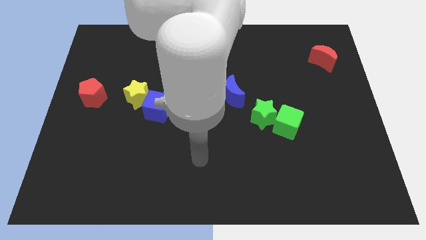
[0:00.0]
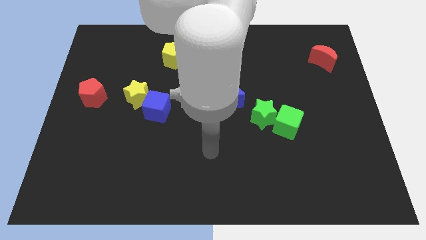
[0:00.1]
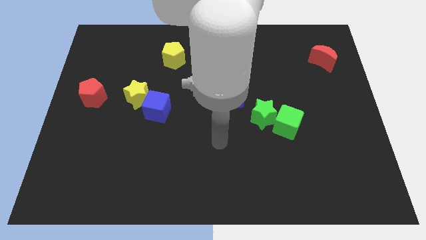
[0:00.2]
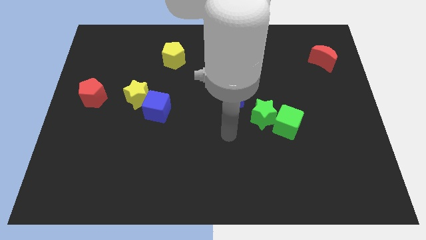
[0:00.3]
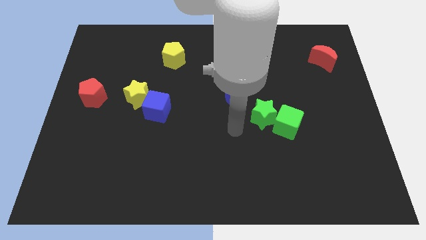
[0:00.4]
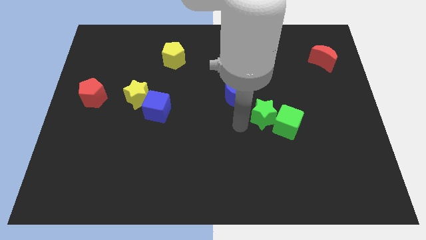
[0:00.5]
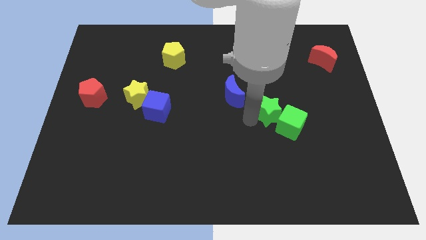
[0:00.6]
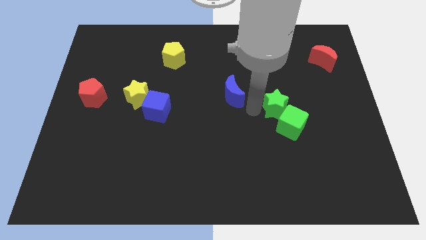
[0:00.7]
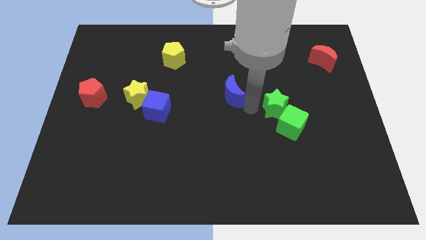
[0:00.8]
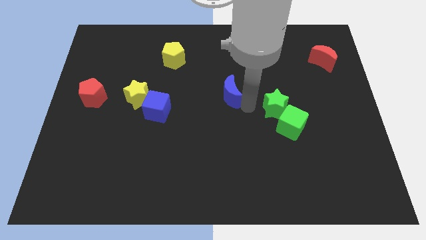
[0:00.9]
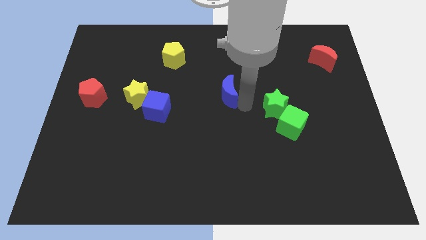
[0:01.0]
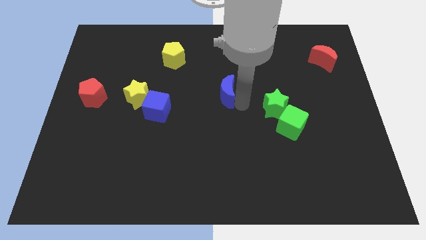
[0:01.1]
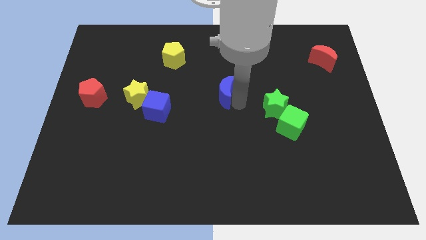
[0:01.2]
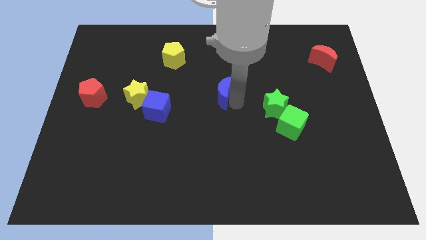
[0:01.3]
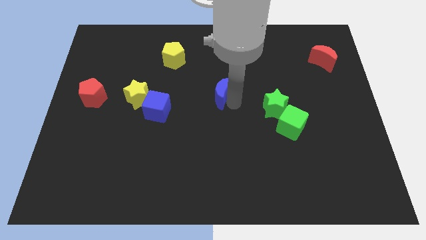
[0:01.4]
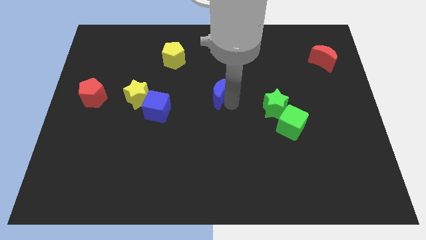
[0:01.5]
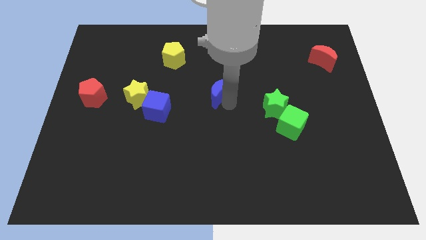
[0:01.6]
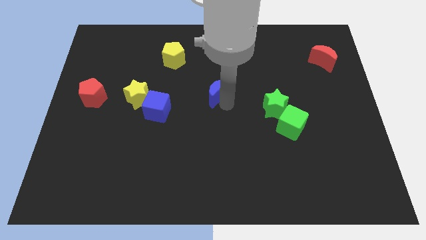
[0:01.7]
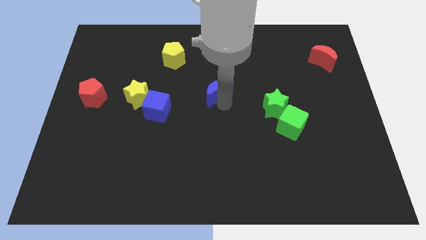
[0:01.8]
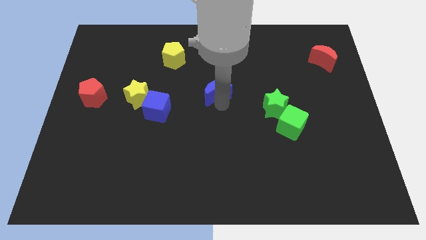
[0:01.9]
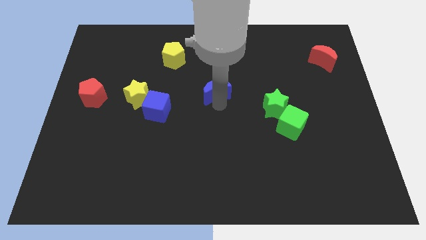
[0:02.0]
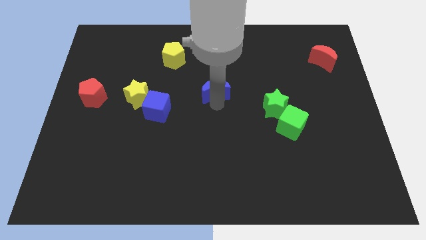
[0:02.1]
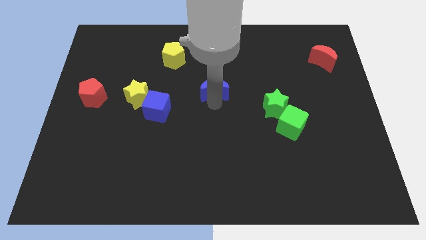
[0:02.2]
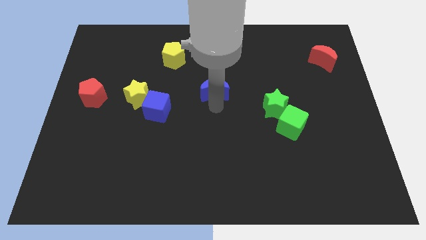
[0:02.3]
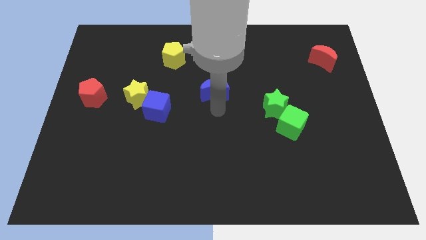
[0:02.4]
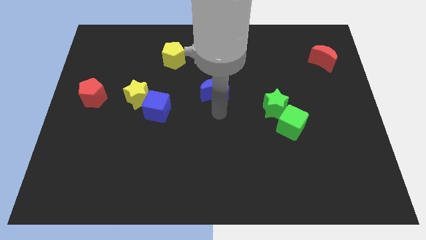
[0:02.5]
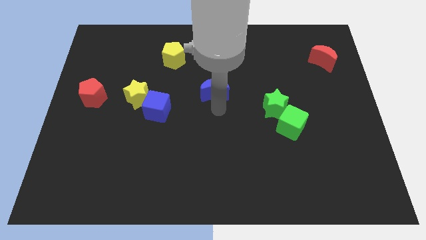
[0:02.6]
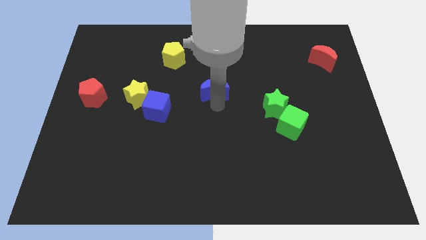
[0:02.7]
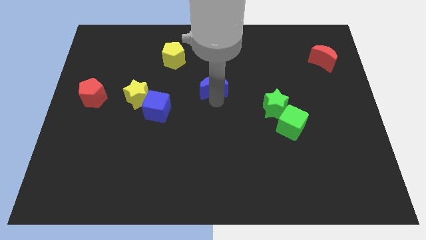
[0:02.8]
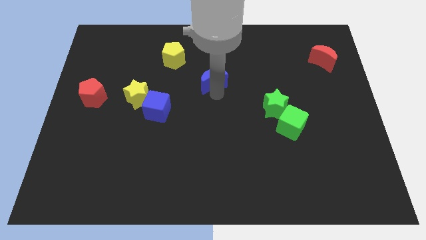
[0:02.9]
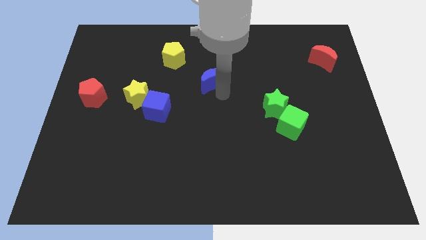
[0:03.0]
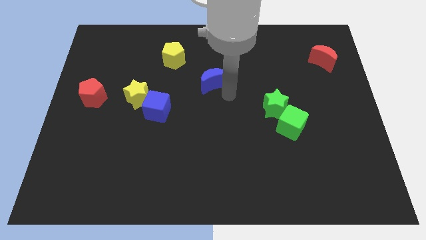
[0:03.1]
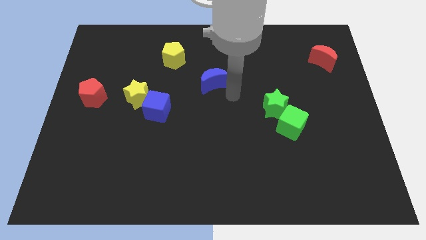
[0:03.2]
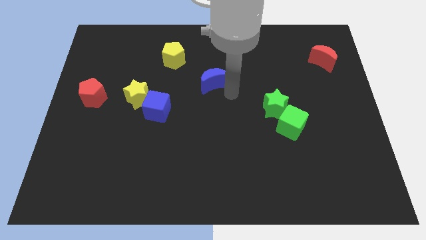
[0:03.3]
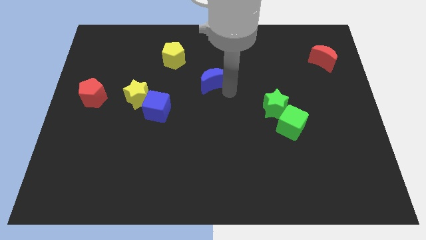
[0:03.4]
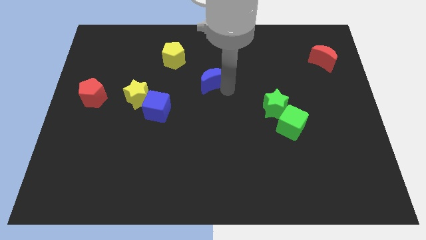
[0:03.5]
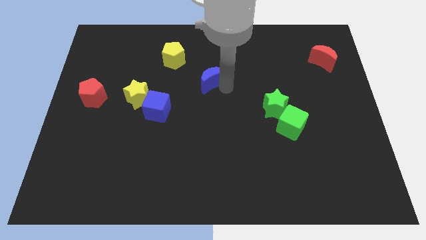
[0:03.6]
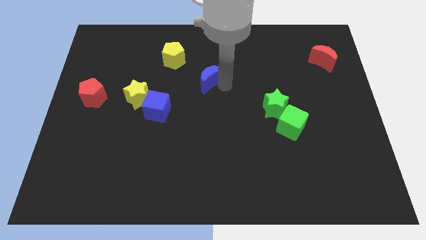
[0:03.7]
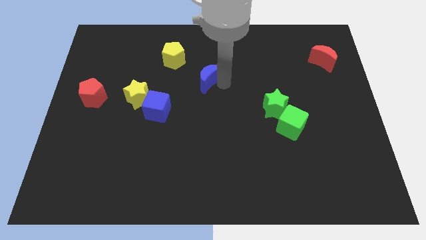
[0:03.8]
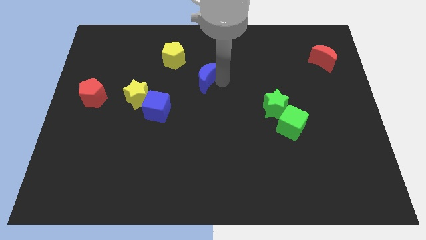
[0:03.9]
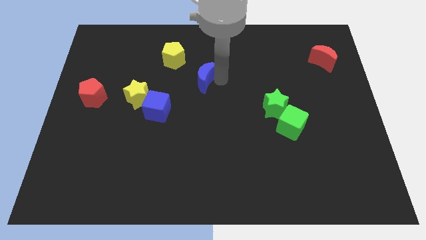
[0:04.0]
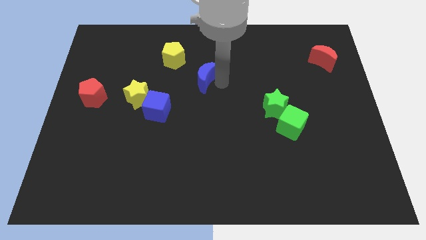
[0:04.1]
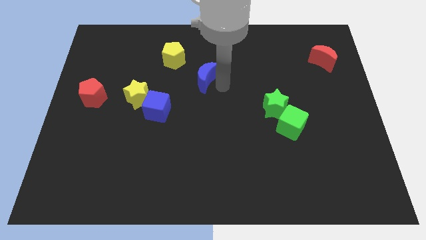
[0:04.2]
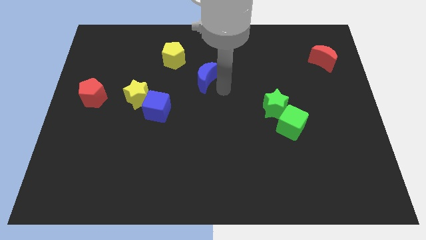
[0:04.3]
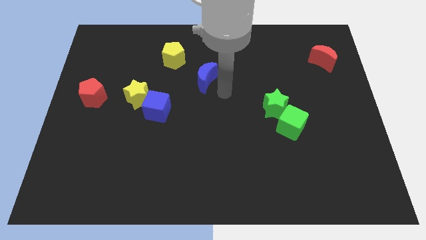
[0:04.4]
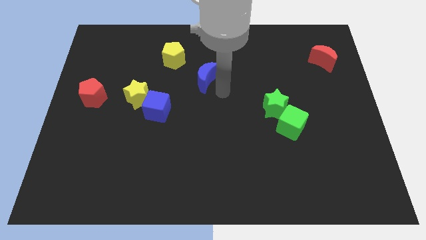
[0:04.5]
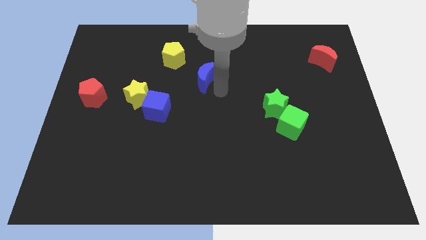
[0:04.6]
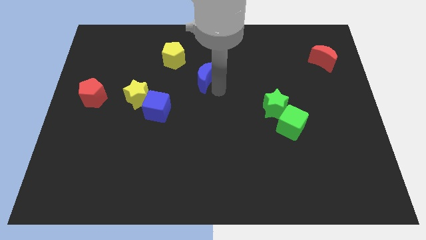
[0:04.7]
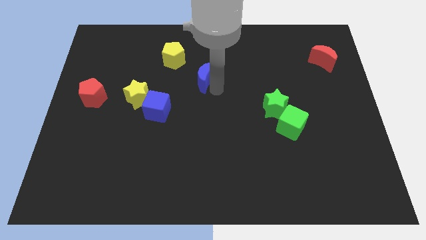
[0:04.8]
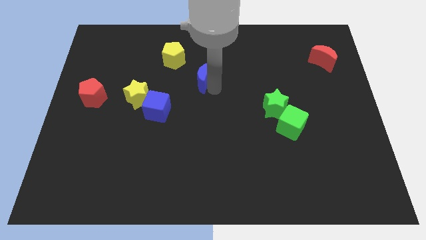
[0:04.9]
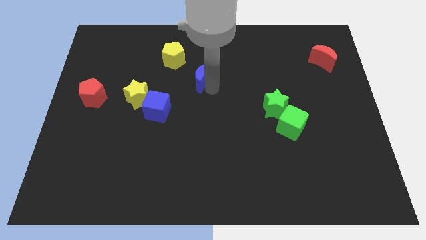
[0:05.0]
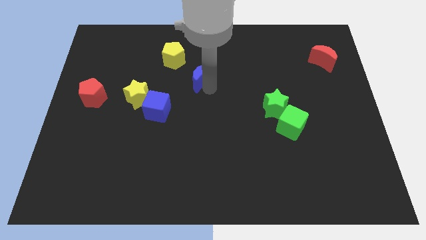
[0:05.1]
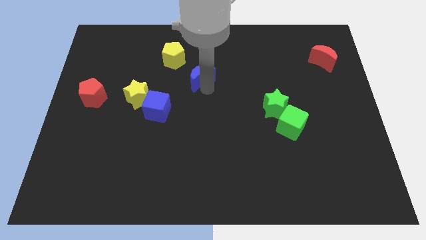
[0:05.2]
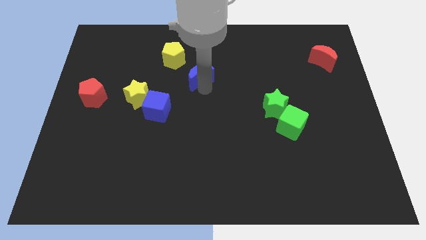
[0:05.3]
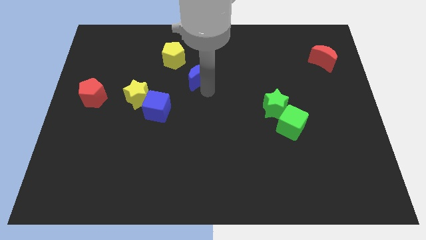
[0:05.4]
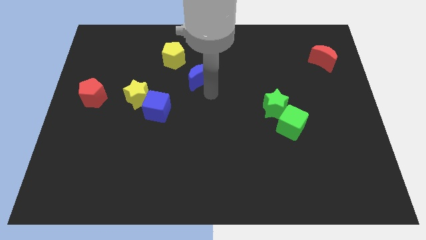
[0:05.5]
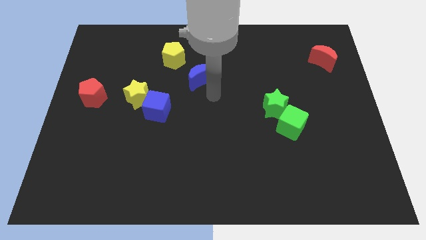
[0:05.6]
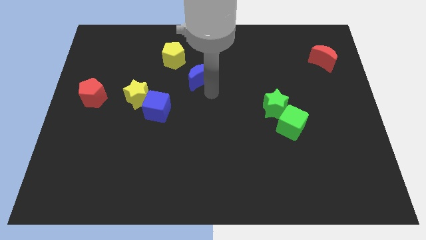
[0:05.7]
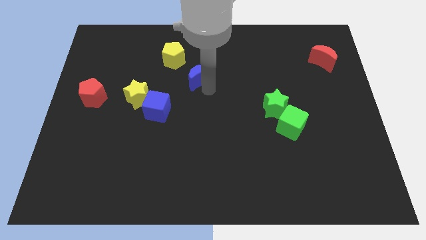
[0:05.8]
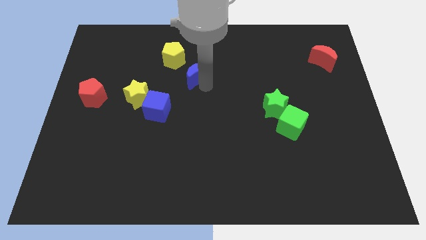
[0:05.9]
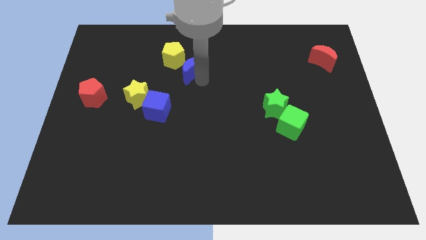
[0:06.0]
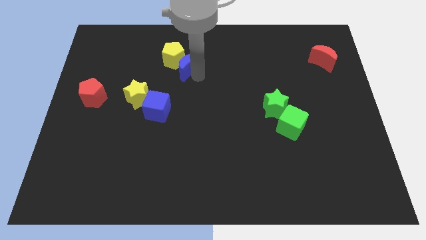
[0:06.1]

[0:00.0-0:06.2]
move the blue moon next to the yellow pentagon

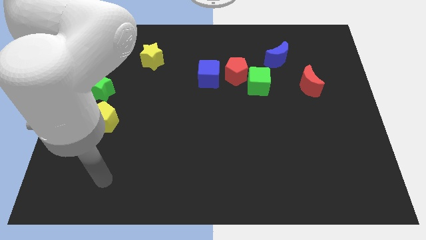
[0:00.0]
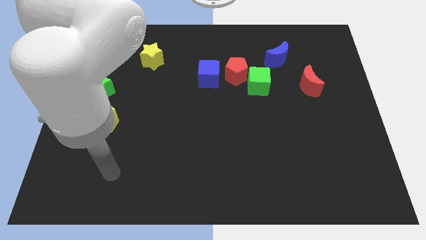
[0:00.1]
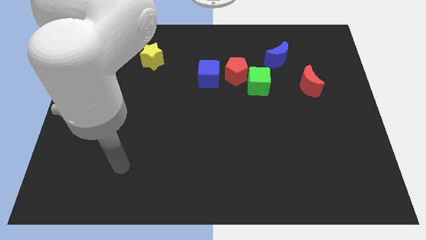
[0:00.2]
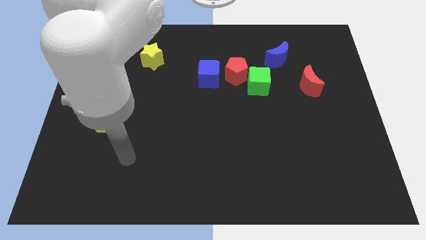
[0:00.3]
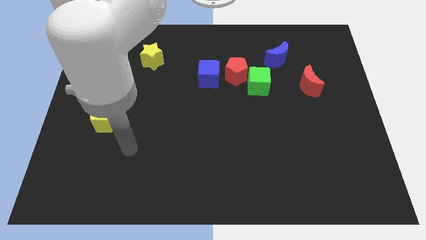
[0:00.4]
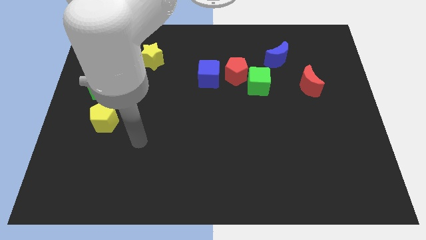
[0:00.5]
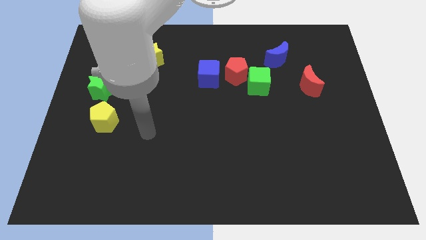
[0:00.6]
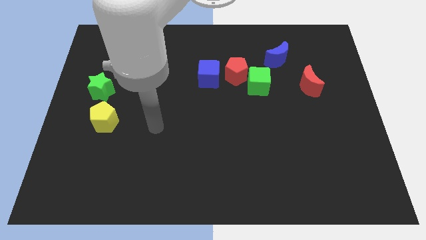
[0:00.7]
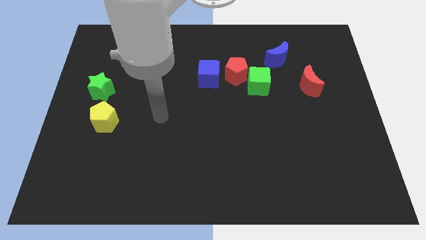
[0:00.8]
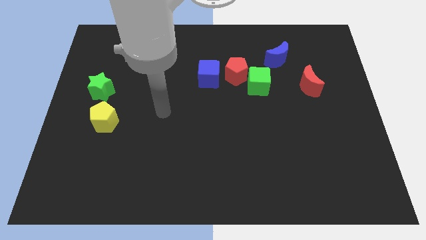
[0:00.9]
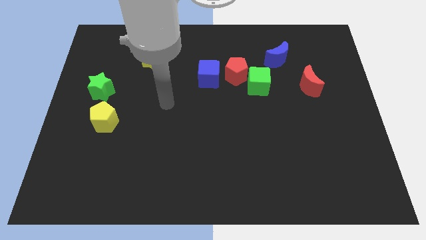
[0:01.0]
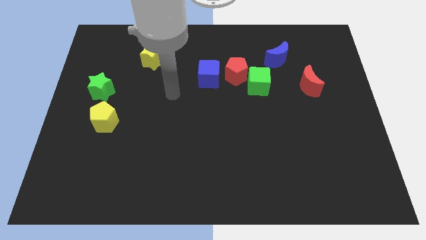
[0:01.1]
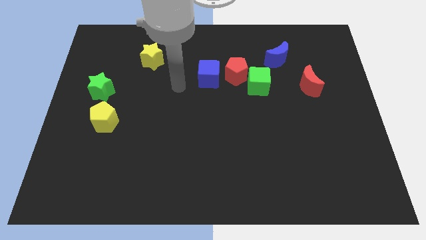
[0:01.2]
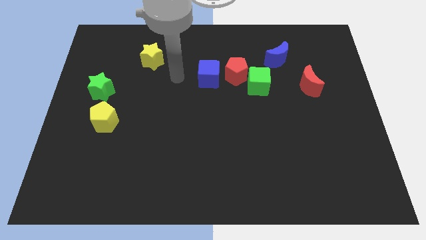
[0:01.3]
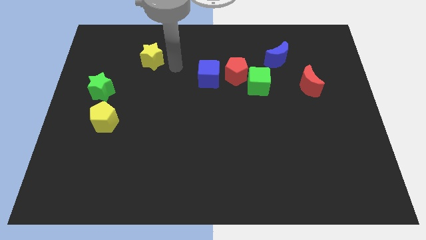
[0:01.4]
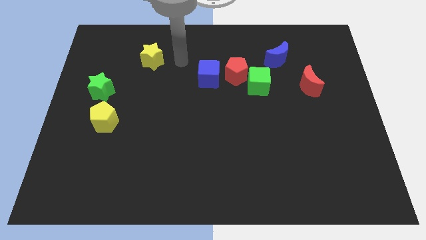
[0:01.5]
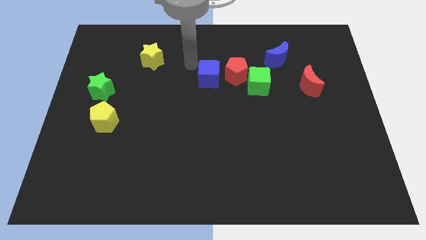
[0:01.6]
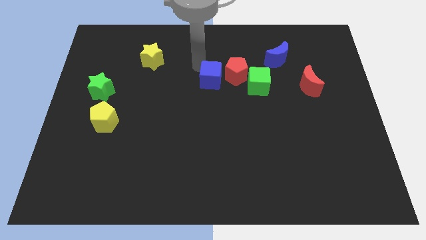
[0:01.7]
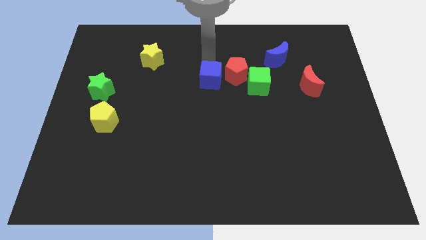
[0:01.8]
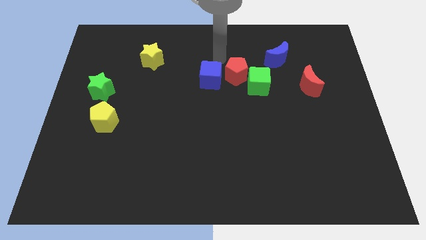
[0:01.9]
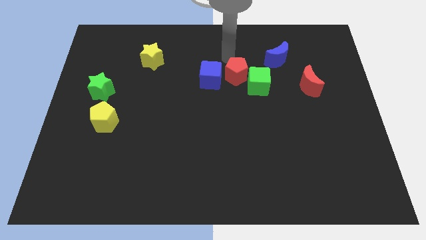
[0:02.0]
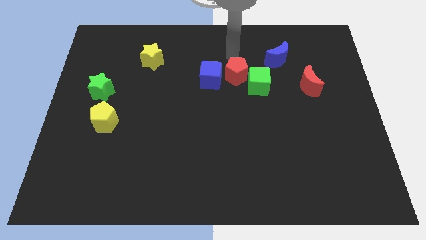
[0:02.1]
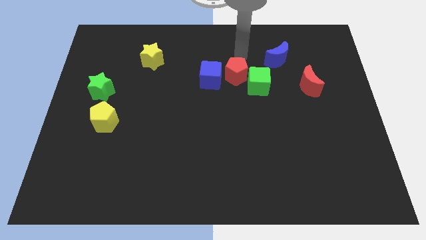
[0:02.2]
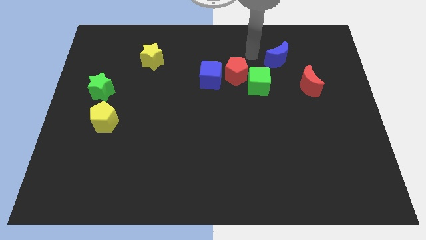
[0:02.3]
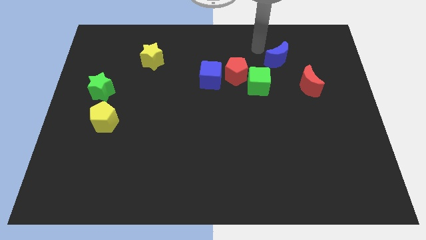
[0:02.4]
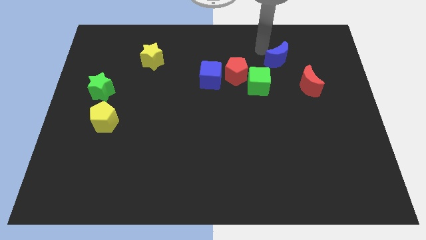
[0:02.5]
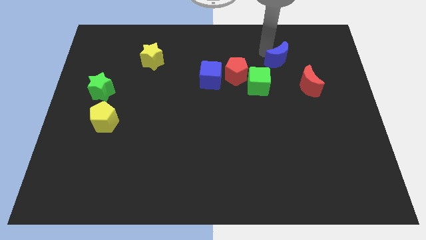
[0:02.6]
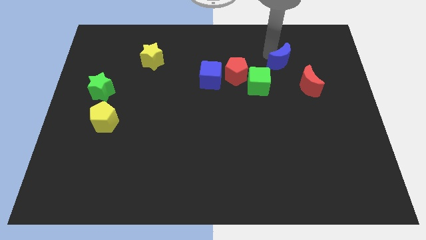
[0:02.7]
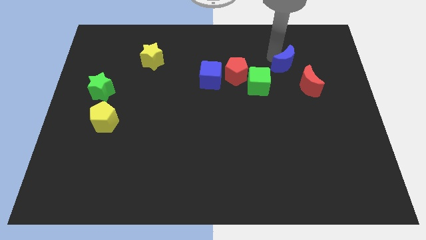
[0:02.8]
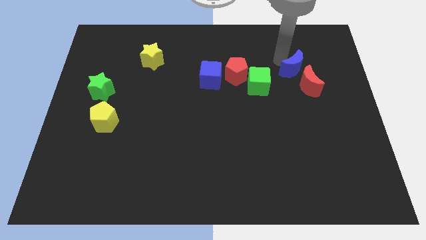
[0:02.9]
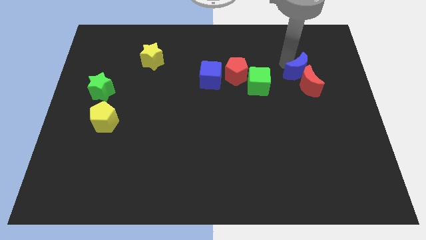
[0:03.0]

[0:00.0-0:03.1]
put the blue moon next to the red moon
